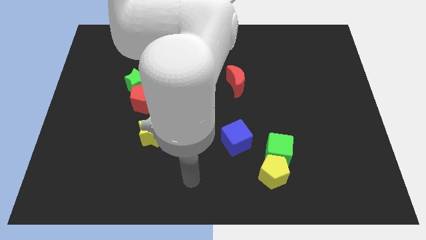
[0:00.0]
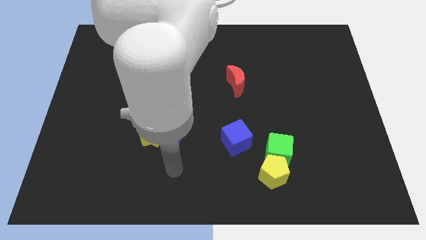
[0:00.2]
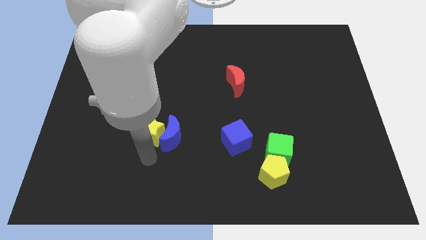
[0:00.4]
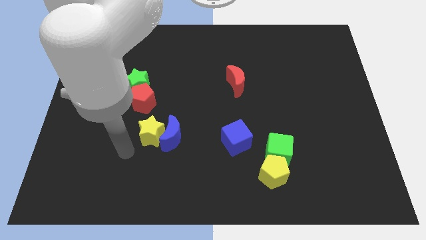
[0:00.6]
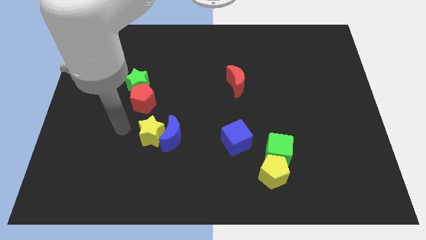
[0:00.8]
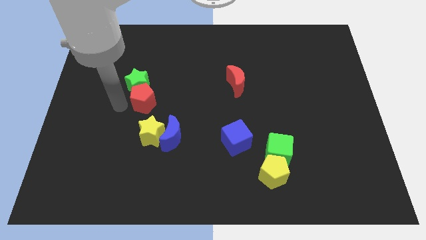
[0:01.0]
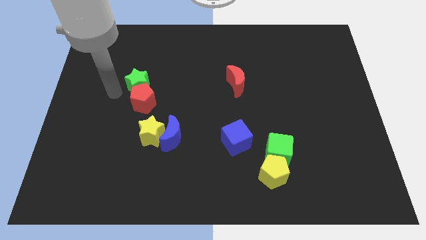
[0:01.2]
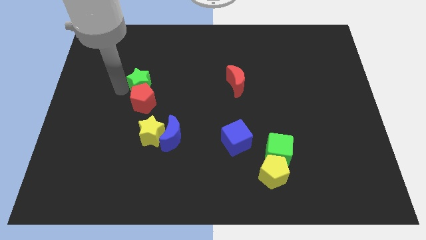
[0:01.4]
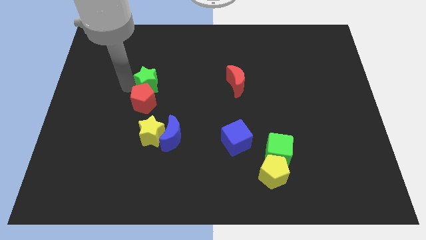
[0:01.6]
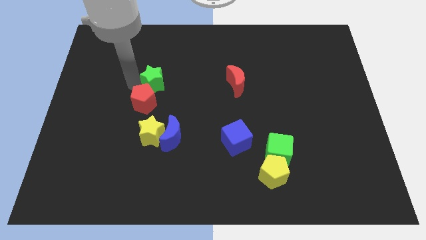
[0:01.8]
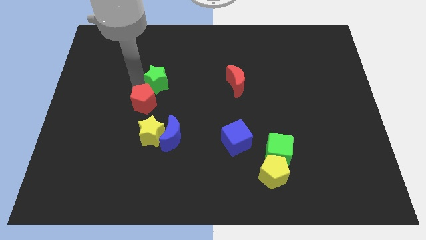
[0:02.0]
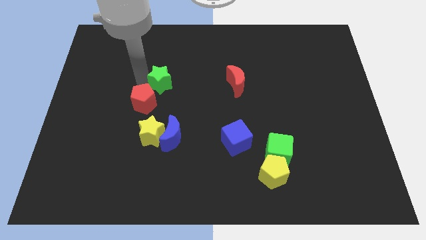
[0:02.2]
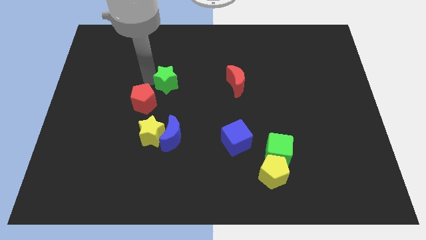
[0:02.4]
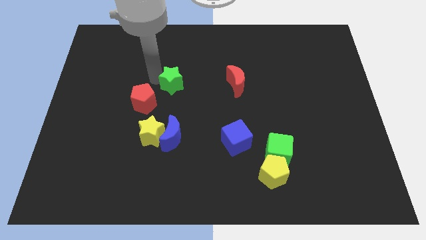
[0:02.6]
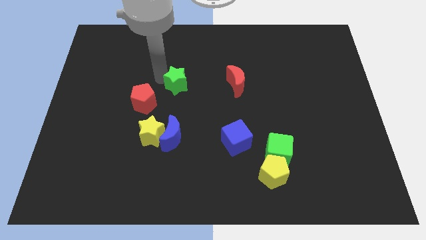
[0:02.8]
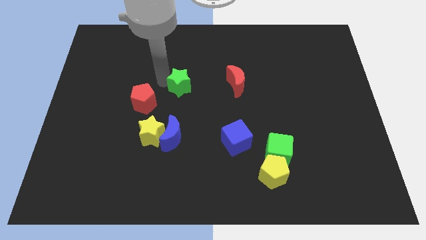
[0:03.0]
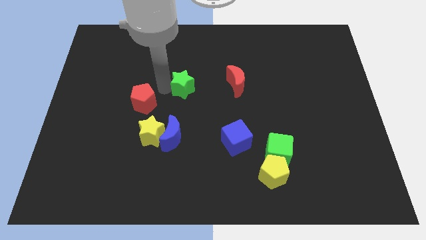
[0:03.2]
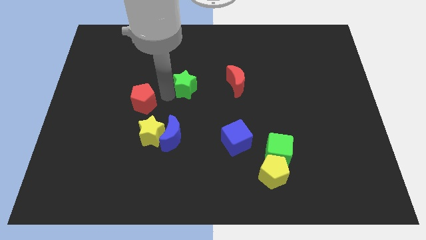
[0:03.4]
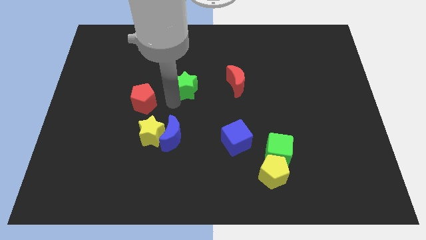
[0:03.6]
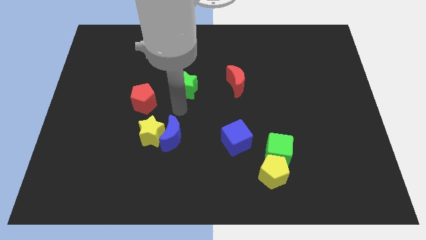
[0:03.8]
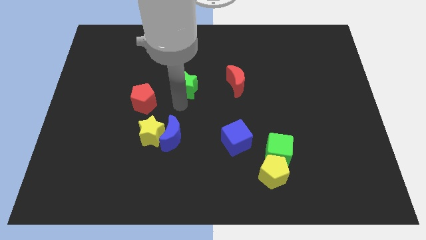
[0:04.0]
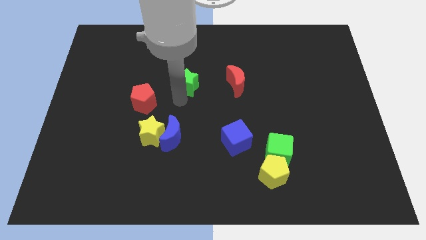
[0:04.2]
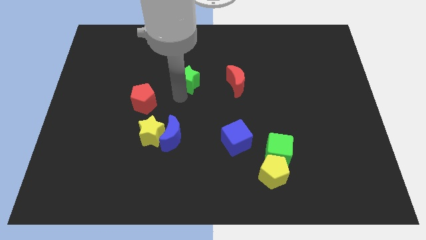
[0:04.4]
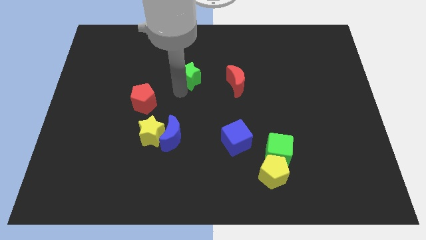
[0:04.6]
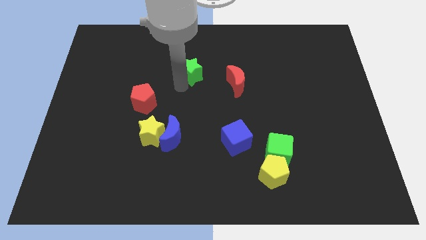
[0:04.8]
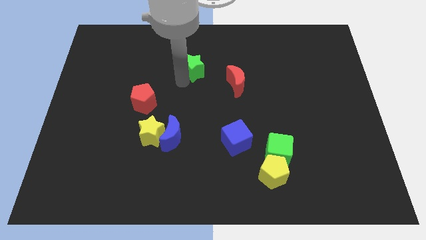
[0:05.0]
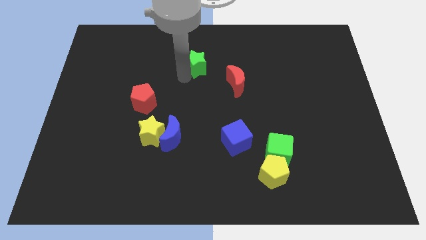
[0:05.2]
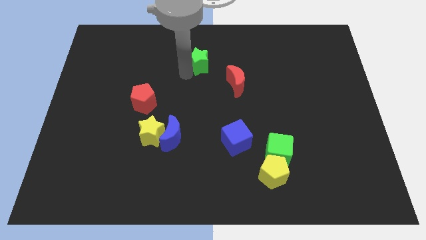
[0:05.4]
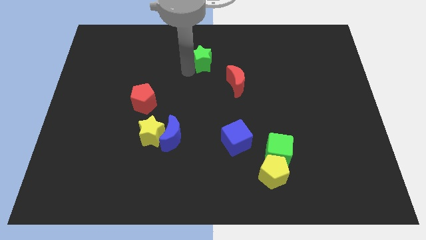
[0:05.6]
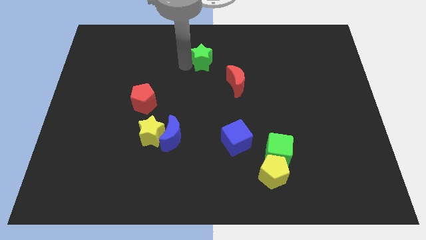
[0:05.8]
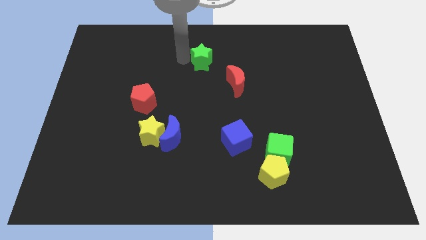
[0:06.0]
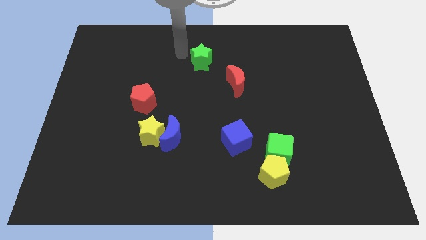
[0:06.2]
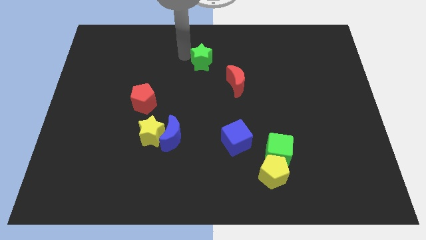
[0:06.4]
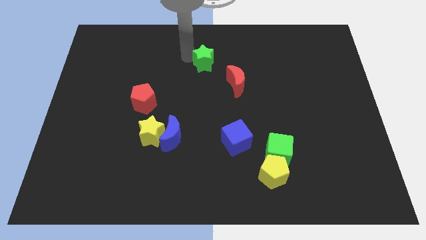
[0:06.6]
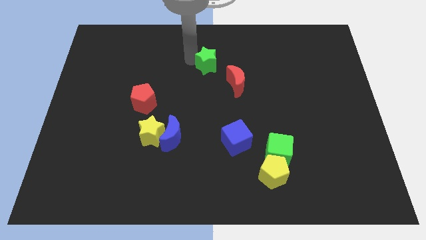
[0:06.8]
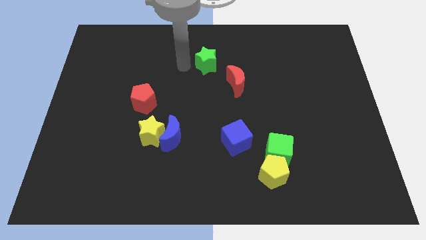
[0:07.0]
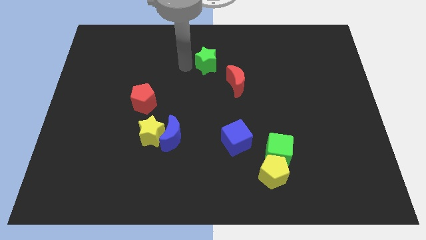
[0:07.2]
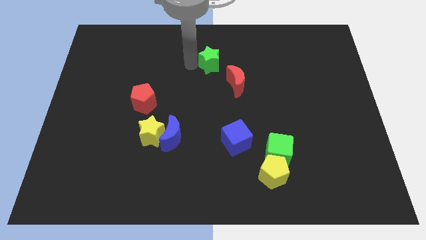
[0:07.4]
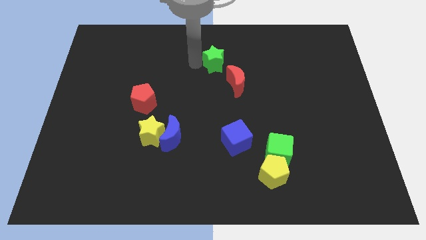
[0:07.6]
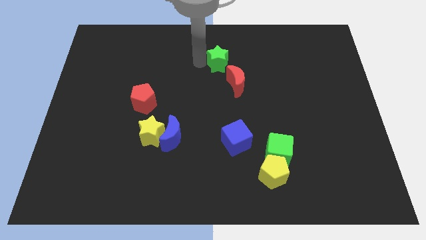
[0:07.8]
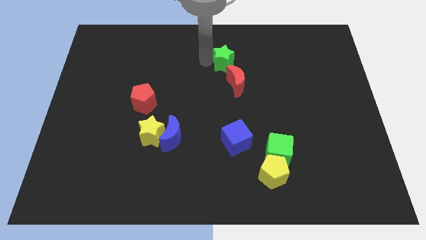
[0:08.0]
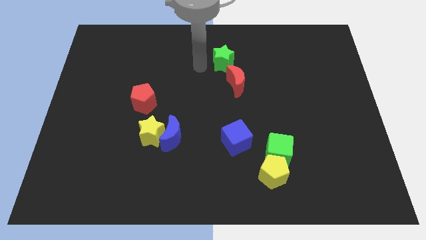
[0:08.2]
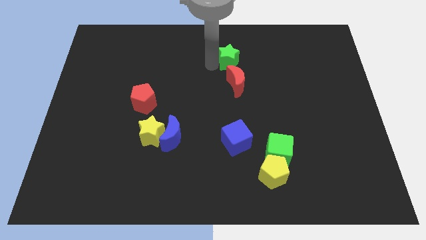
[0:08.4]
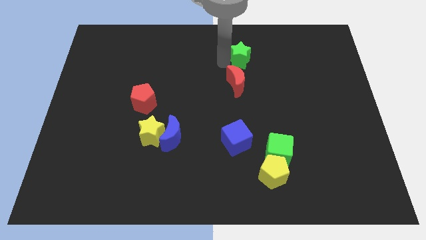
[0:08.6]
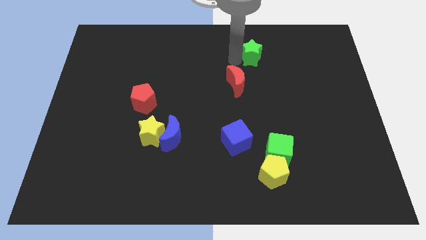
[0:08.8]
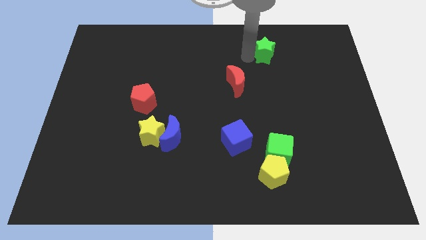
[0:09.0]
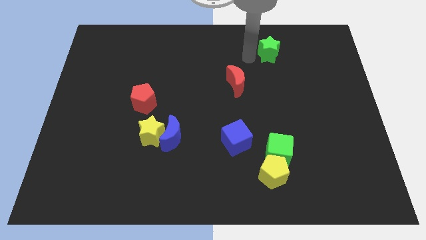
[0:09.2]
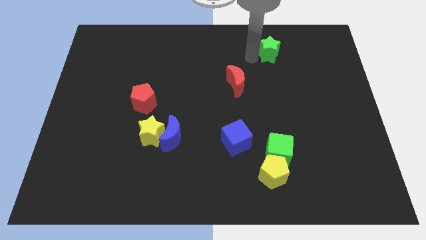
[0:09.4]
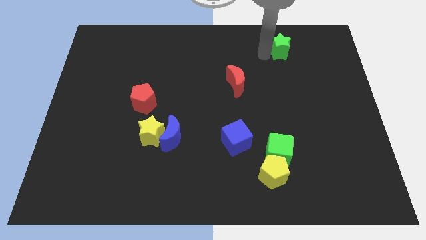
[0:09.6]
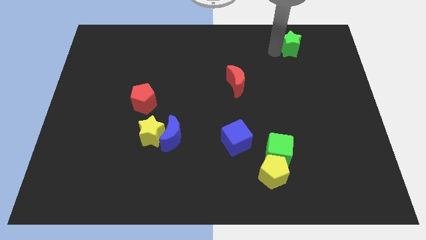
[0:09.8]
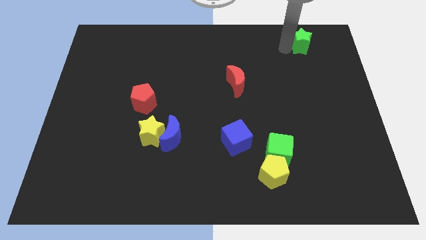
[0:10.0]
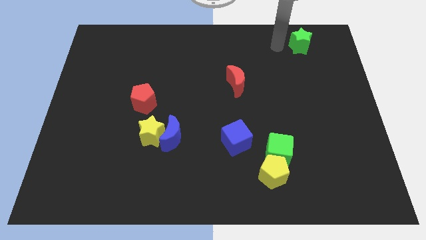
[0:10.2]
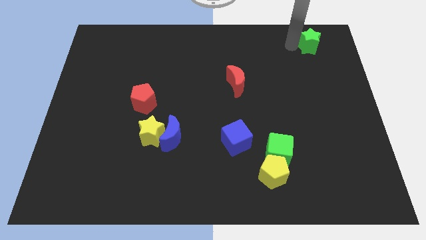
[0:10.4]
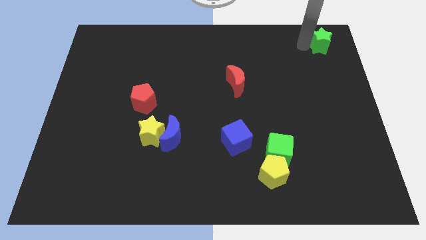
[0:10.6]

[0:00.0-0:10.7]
put the green star to the top right of the board
